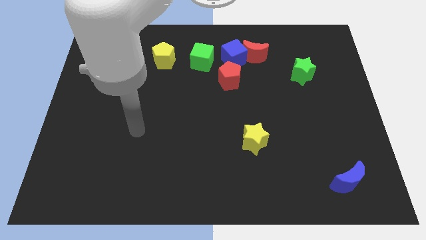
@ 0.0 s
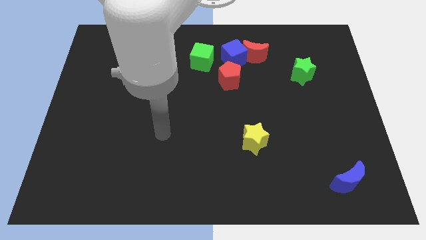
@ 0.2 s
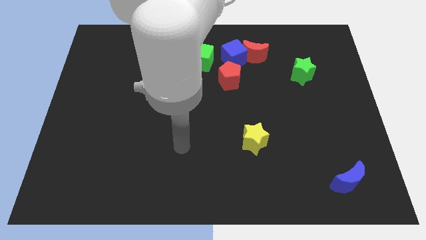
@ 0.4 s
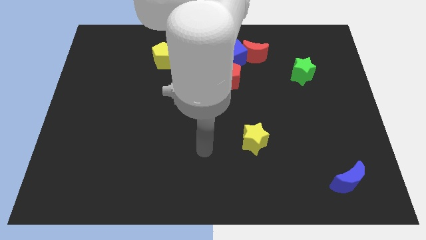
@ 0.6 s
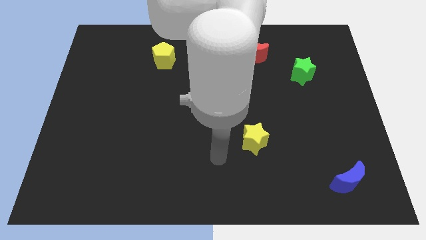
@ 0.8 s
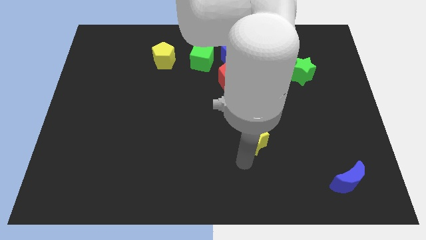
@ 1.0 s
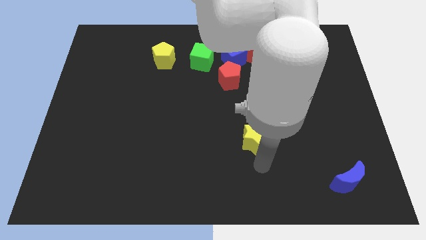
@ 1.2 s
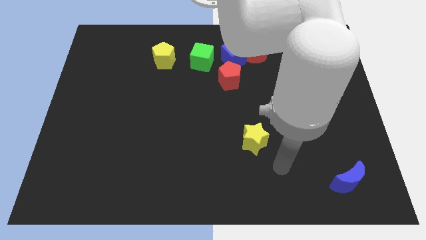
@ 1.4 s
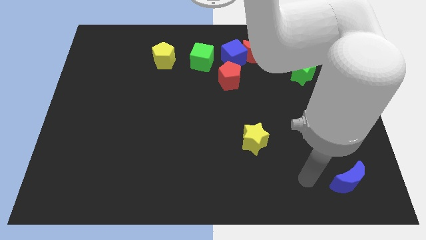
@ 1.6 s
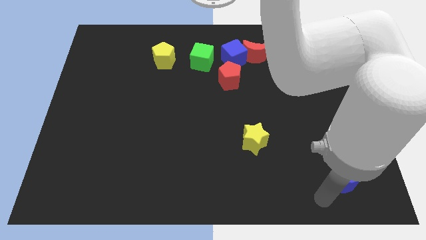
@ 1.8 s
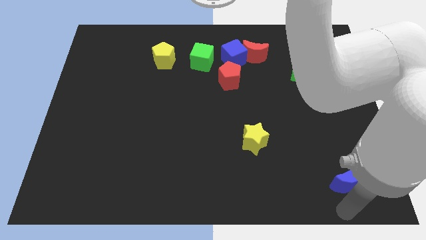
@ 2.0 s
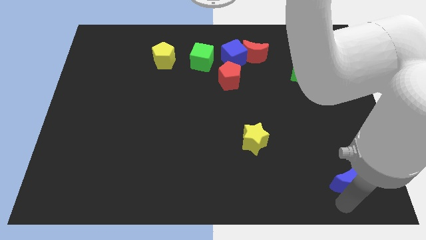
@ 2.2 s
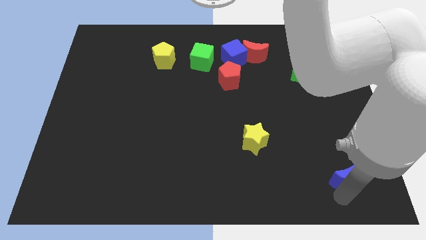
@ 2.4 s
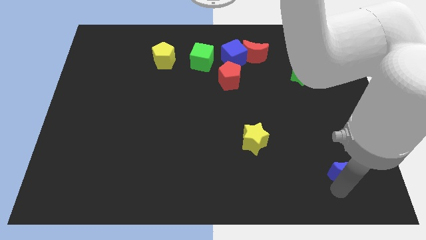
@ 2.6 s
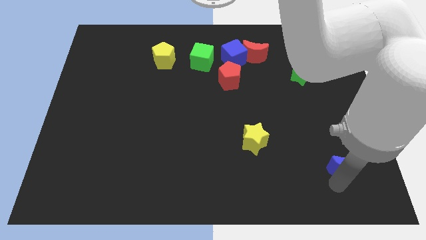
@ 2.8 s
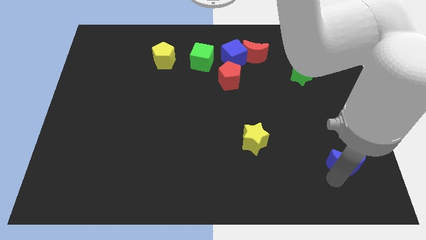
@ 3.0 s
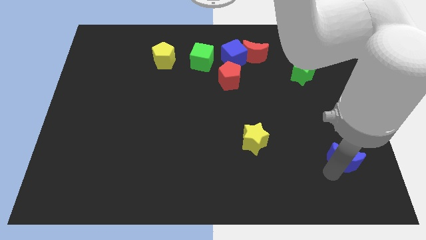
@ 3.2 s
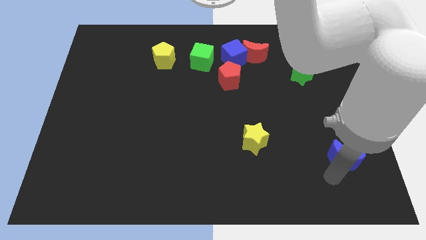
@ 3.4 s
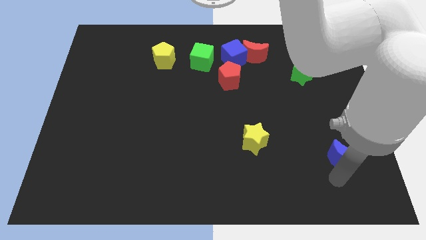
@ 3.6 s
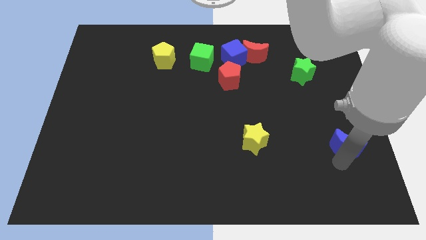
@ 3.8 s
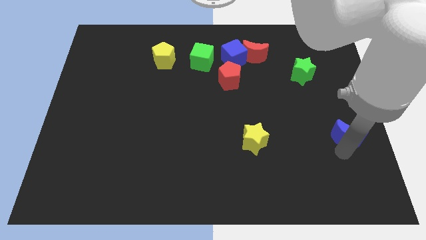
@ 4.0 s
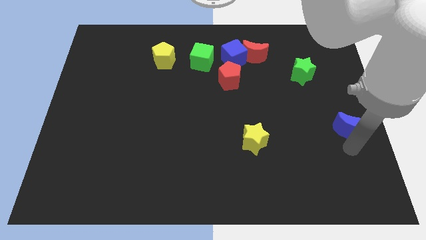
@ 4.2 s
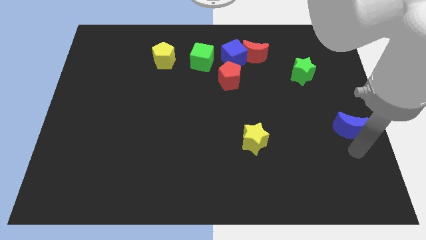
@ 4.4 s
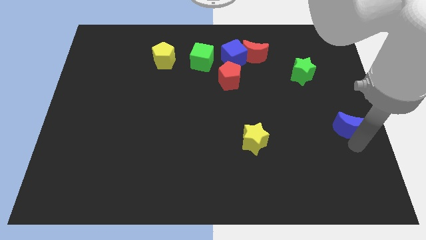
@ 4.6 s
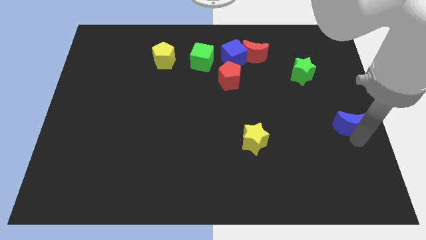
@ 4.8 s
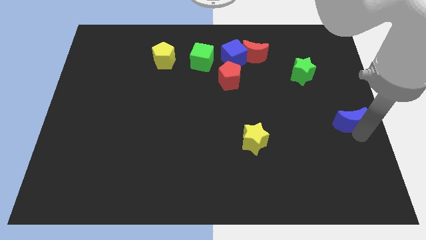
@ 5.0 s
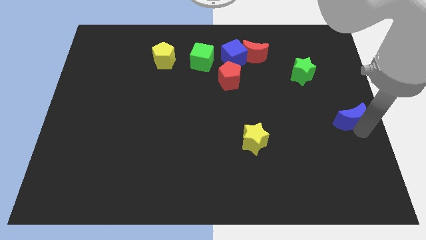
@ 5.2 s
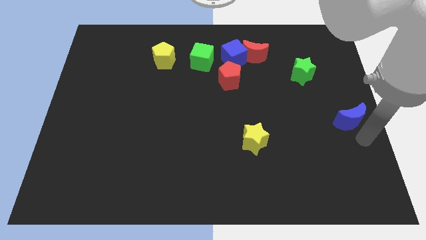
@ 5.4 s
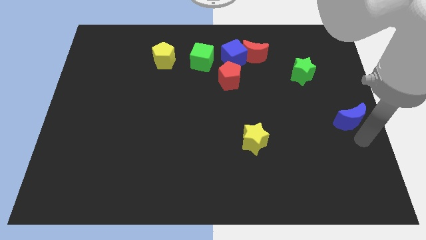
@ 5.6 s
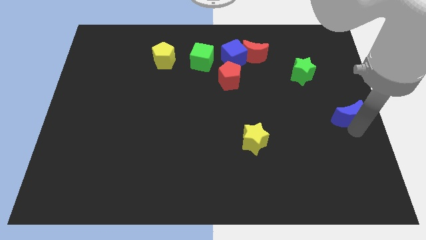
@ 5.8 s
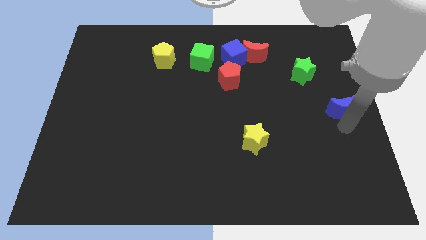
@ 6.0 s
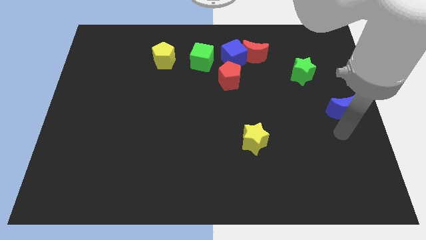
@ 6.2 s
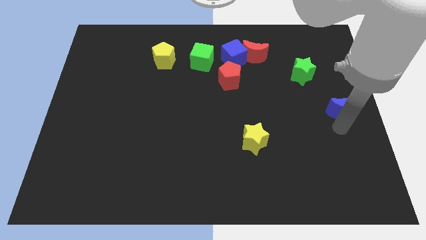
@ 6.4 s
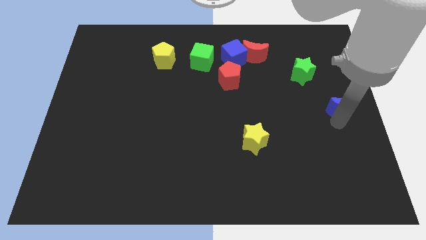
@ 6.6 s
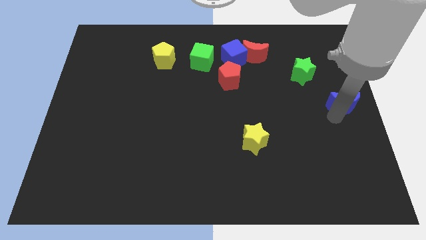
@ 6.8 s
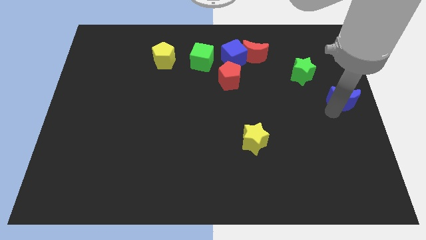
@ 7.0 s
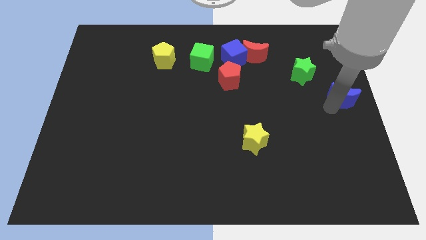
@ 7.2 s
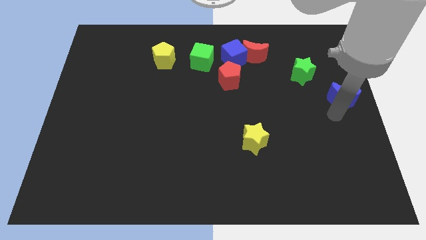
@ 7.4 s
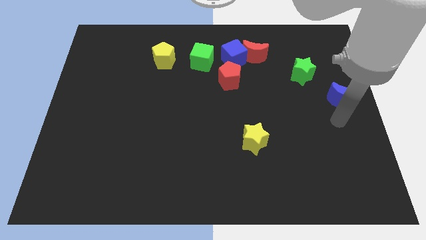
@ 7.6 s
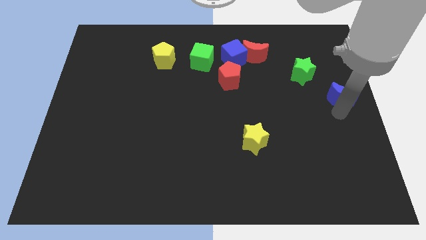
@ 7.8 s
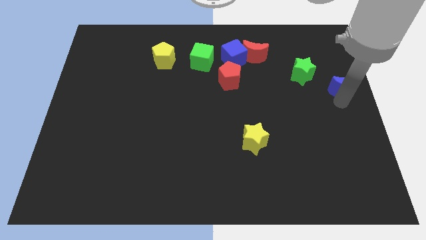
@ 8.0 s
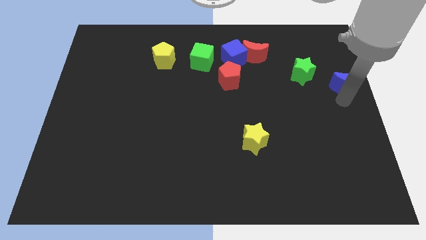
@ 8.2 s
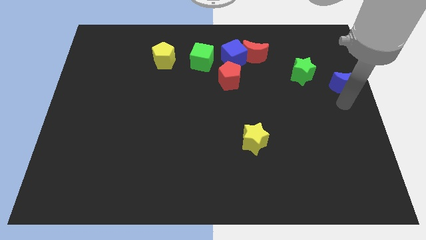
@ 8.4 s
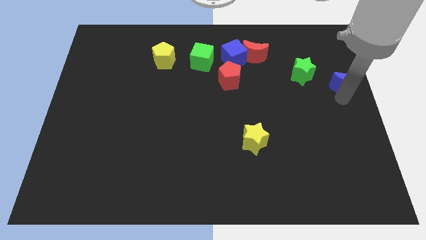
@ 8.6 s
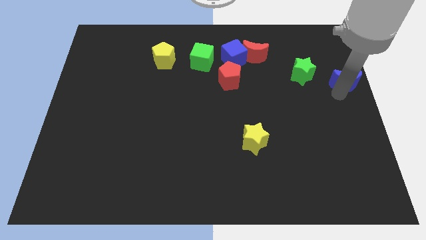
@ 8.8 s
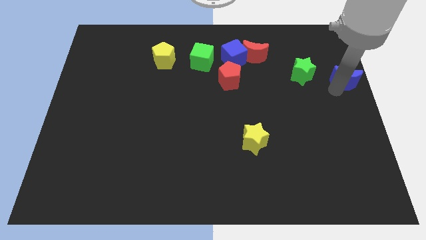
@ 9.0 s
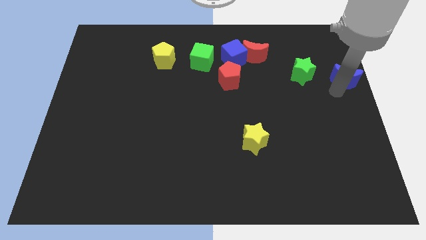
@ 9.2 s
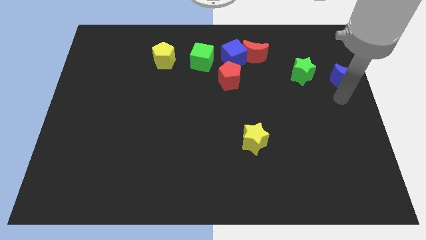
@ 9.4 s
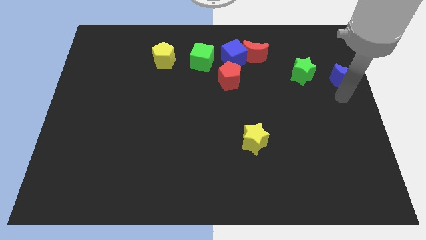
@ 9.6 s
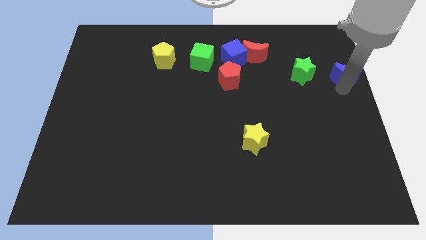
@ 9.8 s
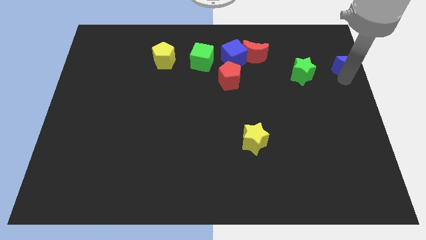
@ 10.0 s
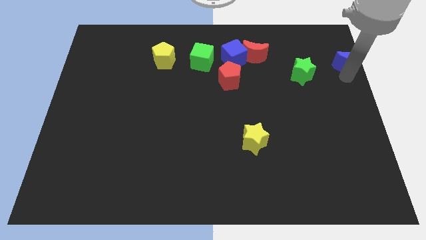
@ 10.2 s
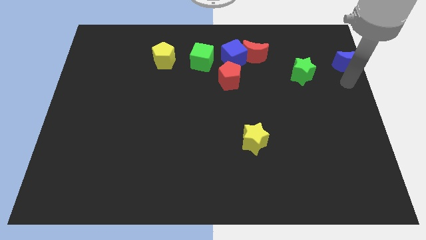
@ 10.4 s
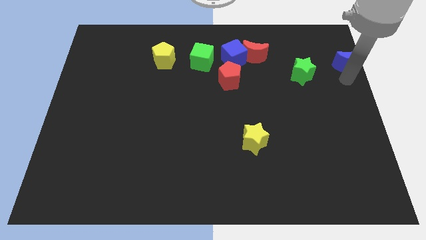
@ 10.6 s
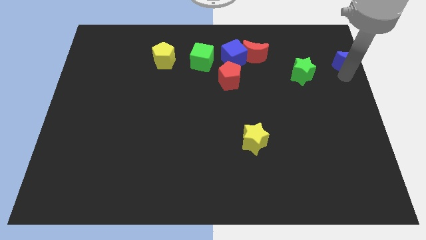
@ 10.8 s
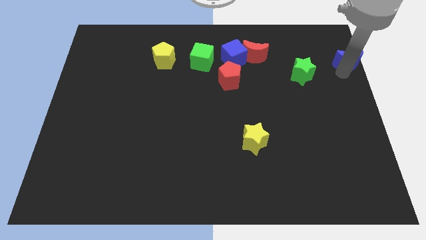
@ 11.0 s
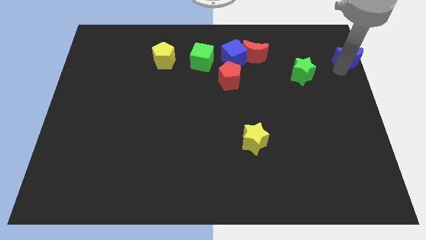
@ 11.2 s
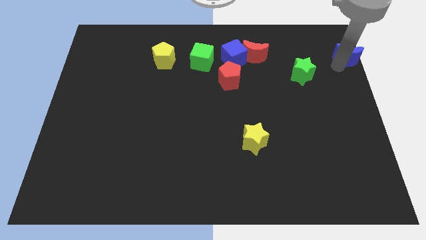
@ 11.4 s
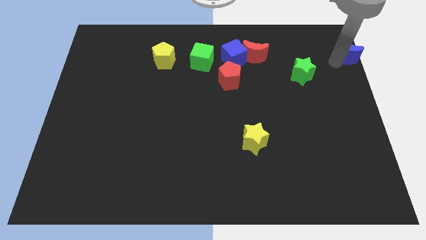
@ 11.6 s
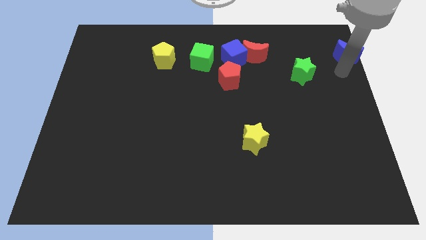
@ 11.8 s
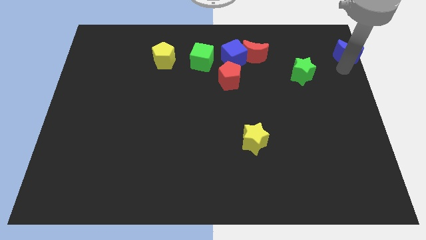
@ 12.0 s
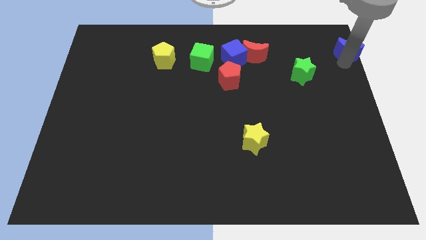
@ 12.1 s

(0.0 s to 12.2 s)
push the blue moon to the top right
